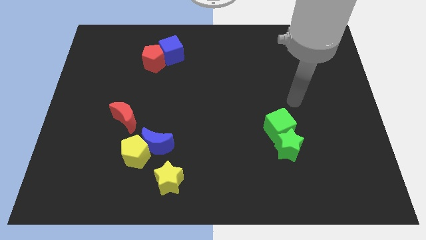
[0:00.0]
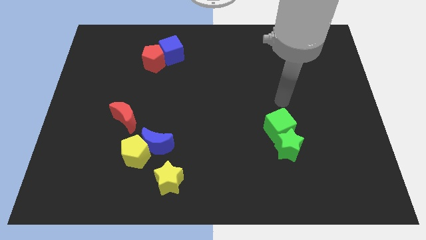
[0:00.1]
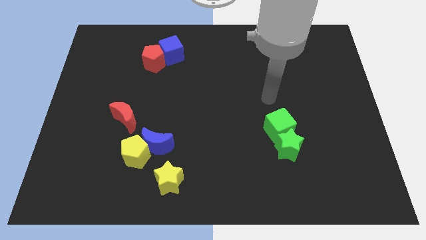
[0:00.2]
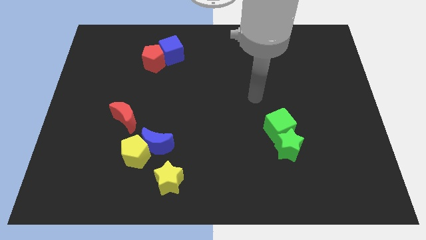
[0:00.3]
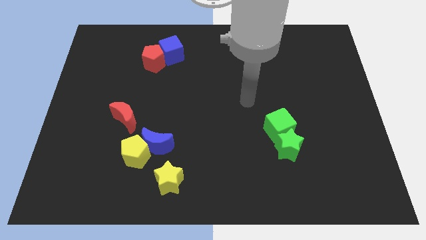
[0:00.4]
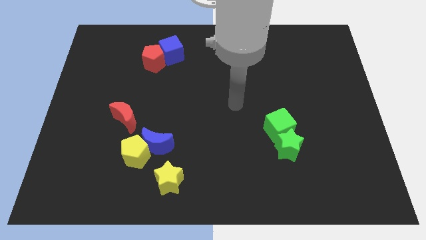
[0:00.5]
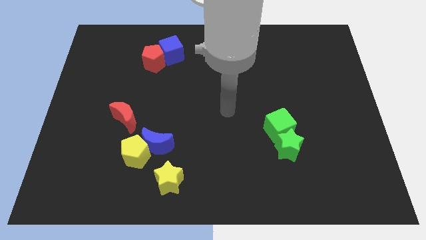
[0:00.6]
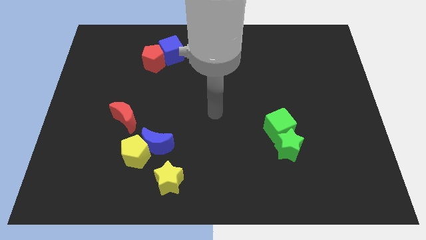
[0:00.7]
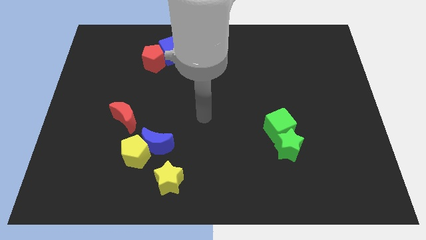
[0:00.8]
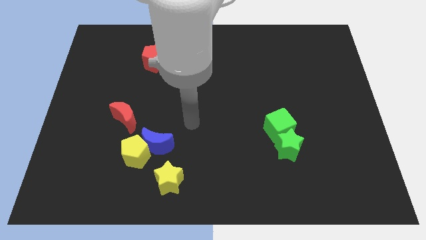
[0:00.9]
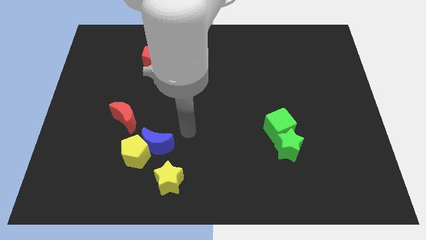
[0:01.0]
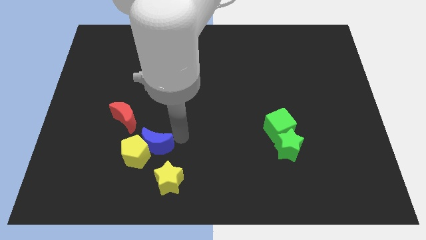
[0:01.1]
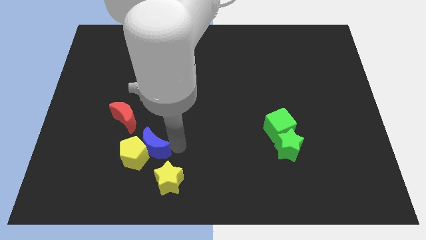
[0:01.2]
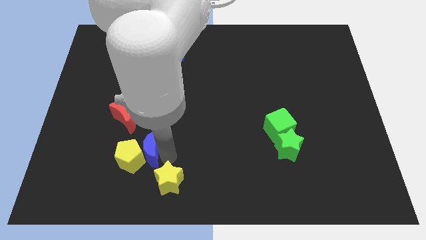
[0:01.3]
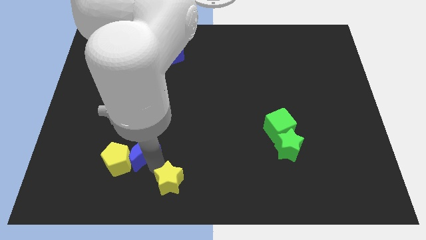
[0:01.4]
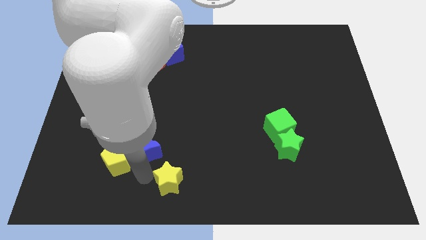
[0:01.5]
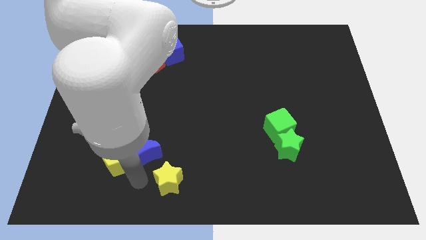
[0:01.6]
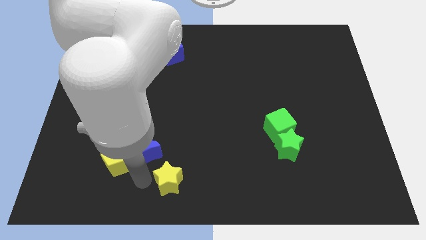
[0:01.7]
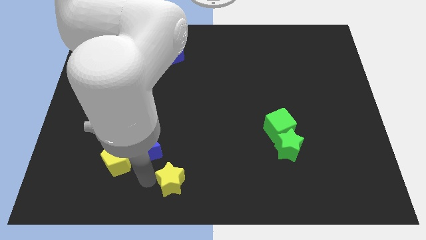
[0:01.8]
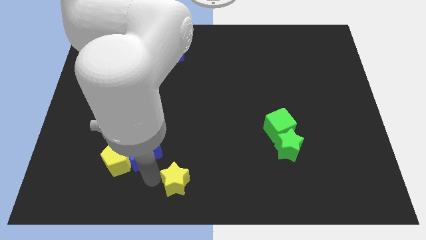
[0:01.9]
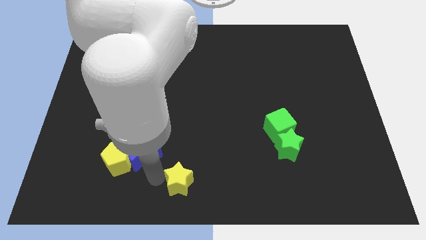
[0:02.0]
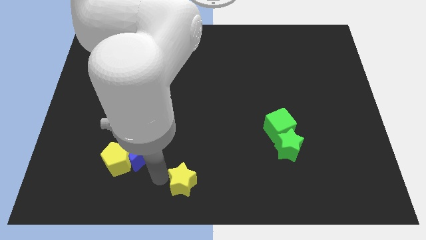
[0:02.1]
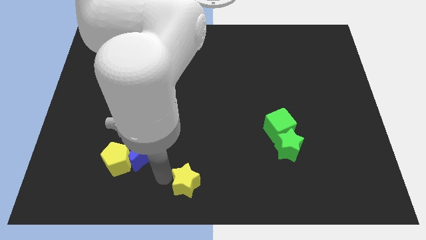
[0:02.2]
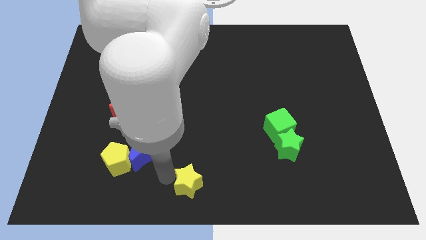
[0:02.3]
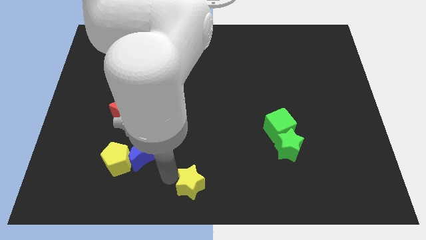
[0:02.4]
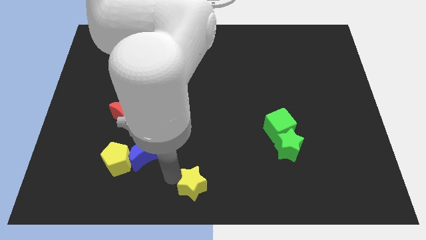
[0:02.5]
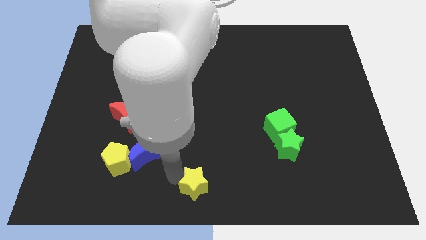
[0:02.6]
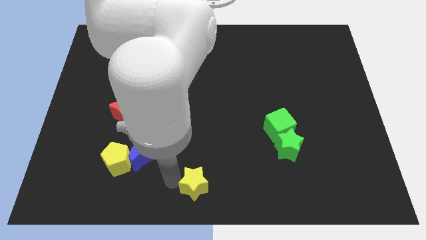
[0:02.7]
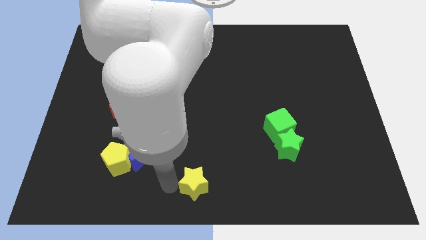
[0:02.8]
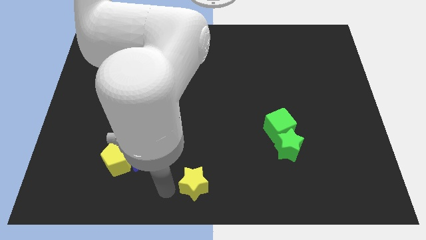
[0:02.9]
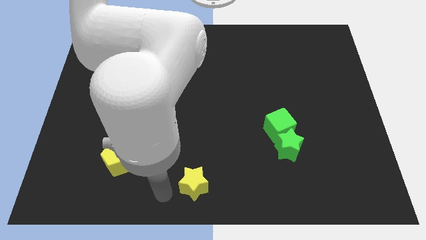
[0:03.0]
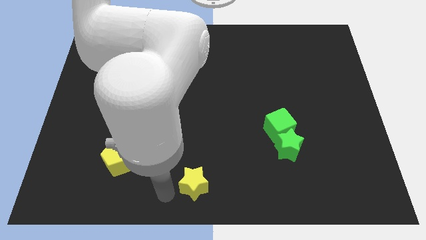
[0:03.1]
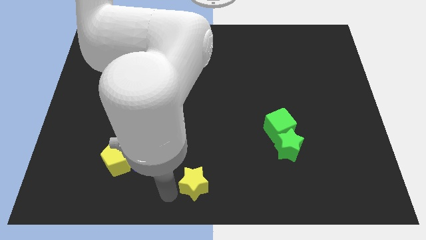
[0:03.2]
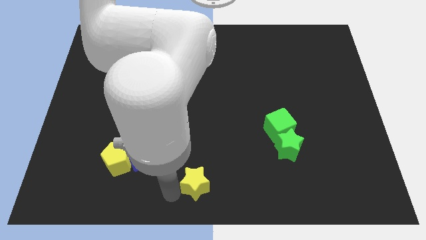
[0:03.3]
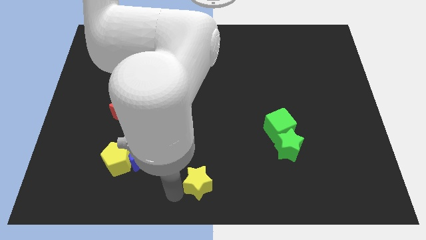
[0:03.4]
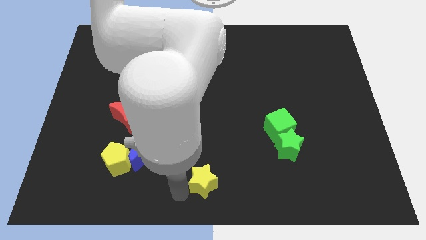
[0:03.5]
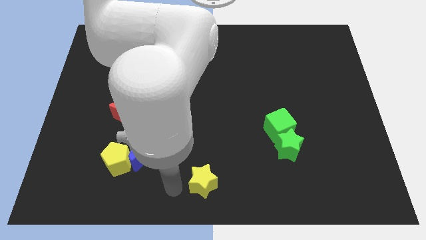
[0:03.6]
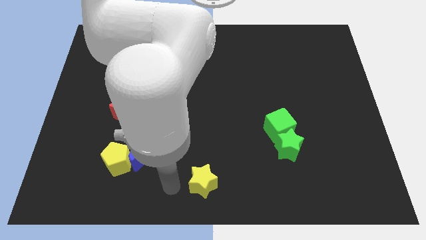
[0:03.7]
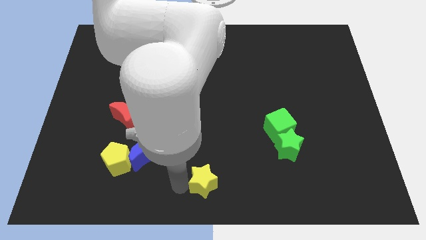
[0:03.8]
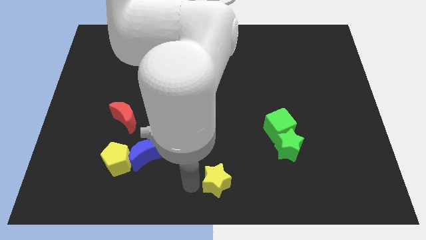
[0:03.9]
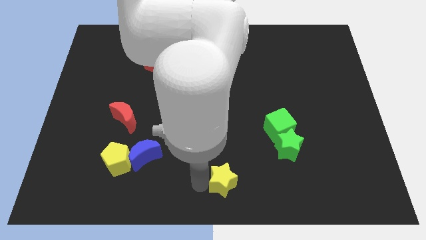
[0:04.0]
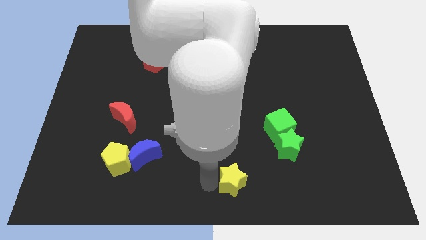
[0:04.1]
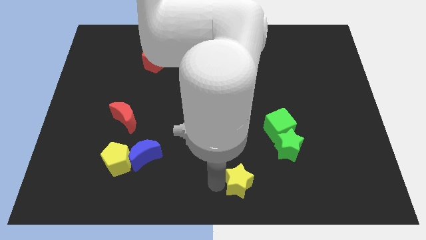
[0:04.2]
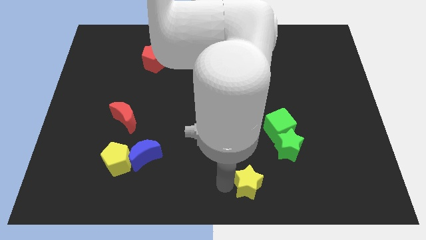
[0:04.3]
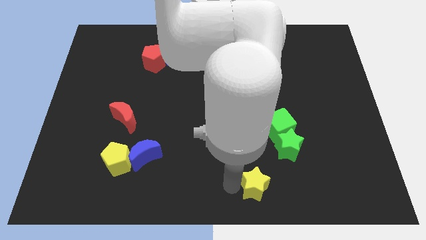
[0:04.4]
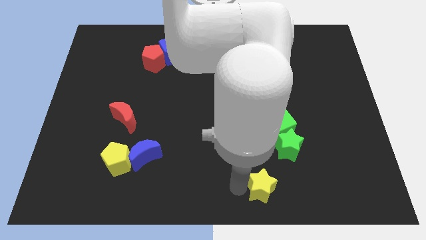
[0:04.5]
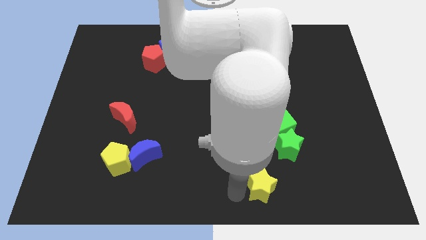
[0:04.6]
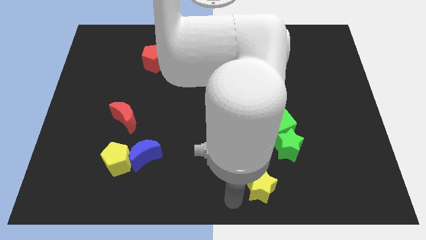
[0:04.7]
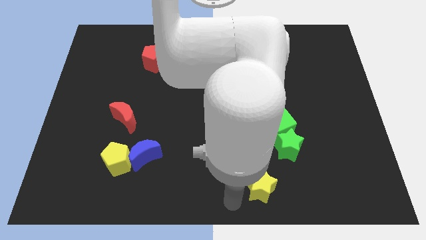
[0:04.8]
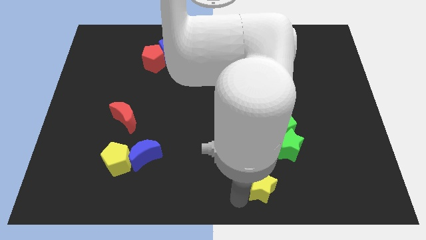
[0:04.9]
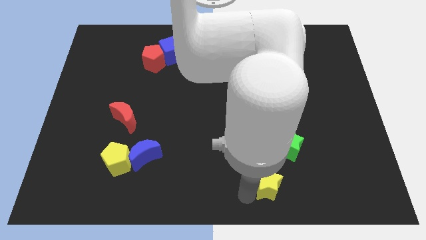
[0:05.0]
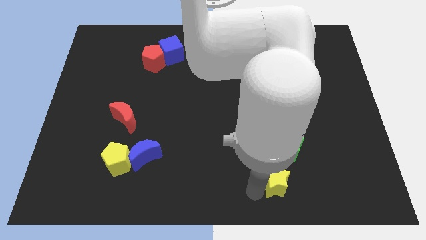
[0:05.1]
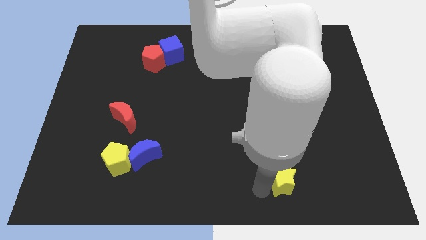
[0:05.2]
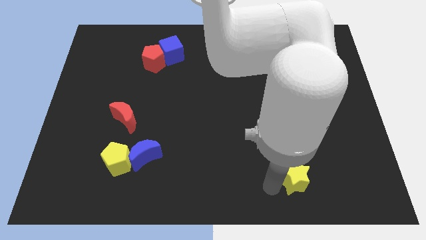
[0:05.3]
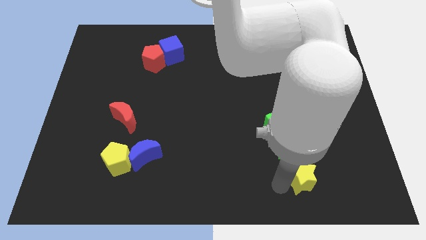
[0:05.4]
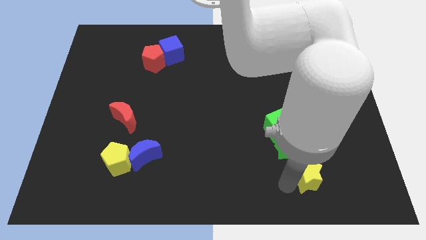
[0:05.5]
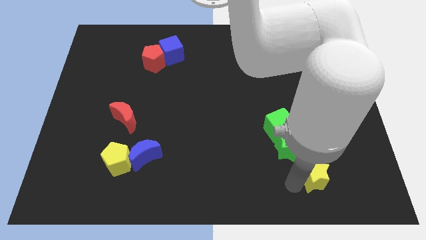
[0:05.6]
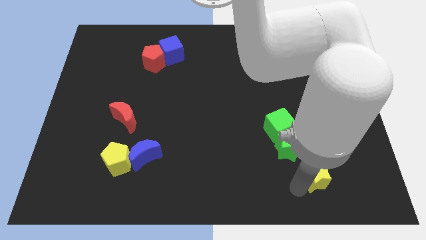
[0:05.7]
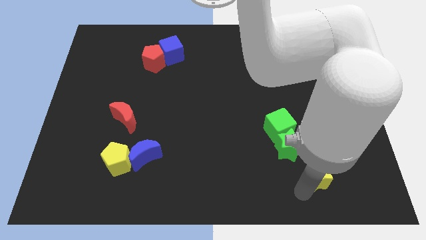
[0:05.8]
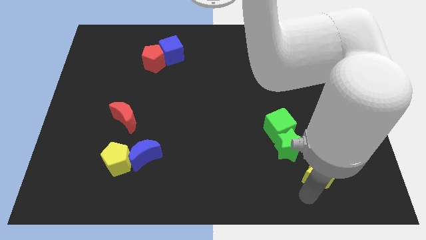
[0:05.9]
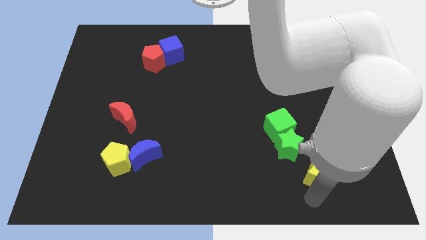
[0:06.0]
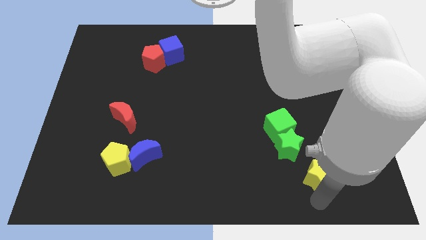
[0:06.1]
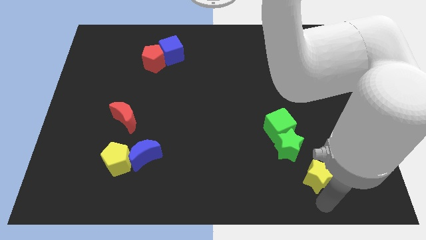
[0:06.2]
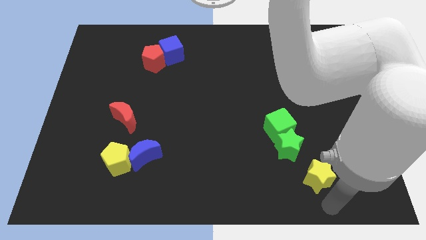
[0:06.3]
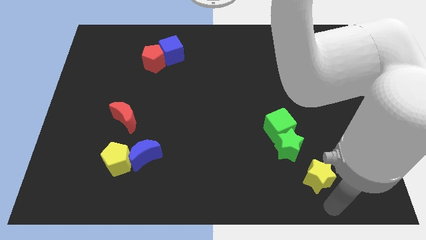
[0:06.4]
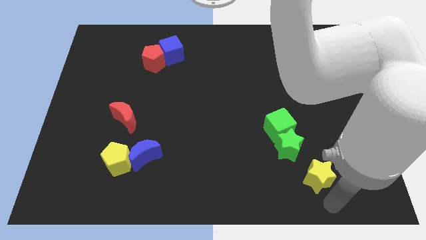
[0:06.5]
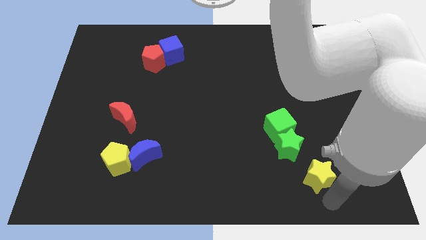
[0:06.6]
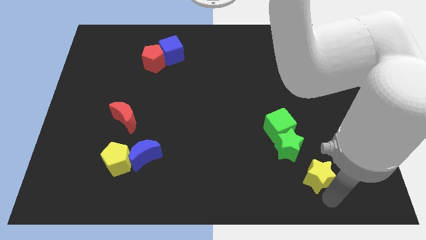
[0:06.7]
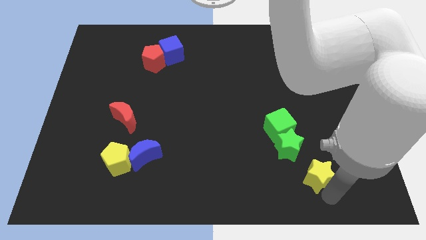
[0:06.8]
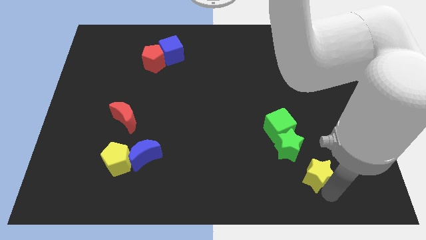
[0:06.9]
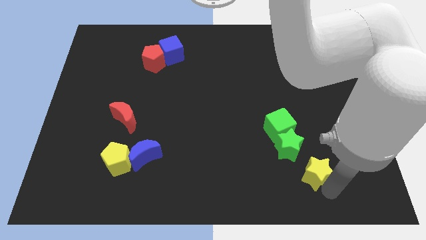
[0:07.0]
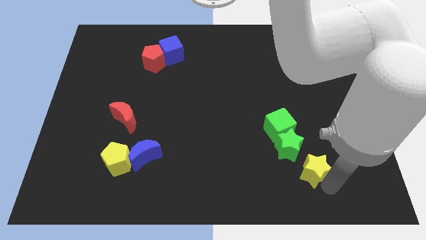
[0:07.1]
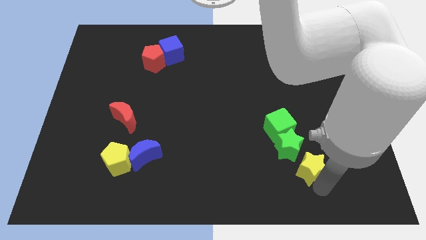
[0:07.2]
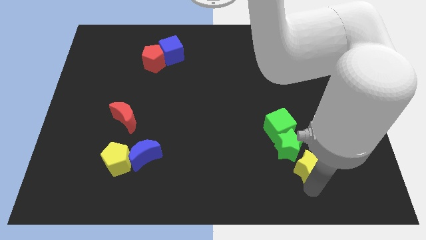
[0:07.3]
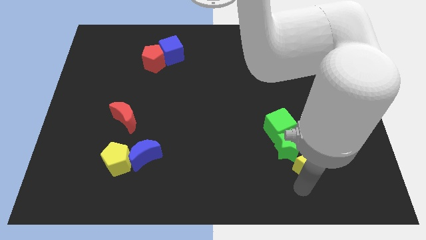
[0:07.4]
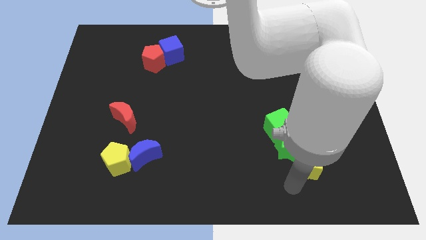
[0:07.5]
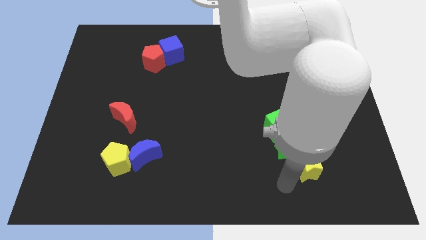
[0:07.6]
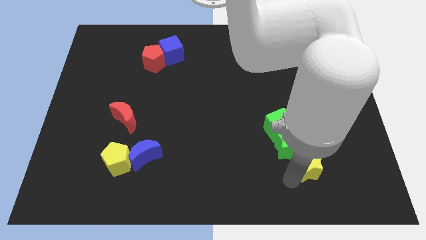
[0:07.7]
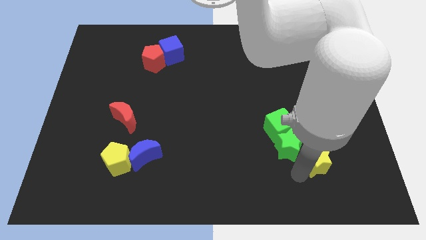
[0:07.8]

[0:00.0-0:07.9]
put the yellow star right of the green star
